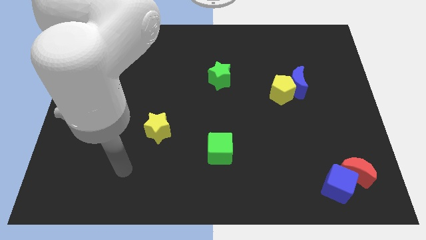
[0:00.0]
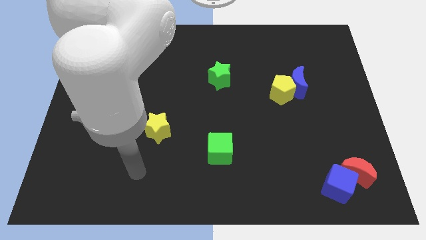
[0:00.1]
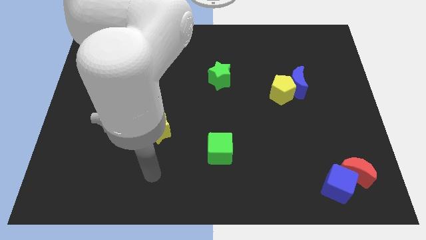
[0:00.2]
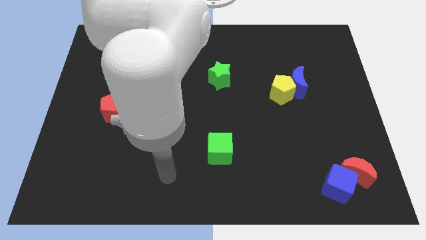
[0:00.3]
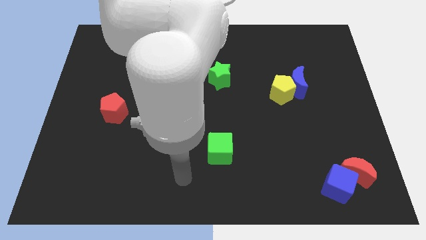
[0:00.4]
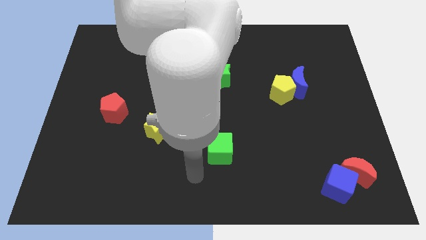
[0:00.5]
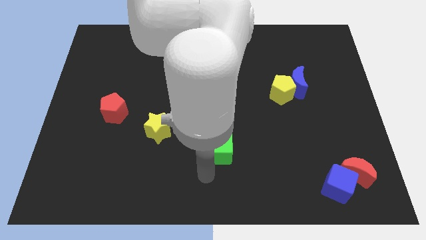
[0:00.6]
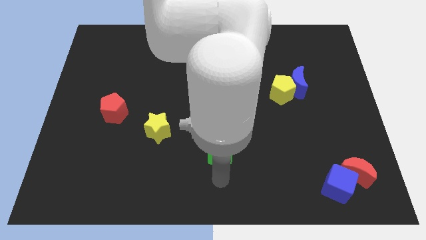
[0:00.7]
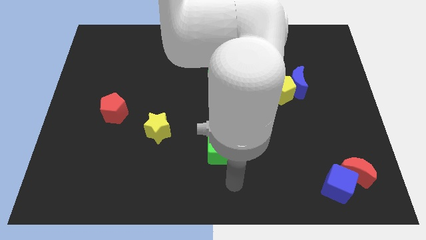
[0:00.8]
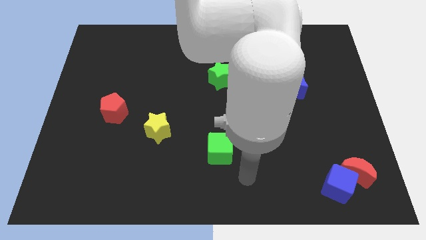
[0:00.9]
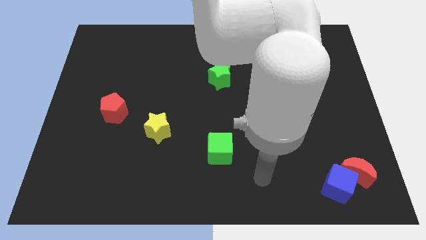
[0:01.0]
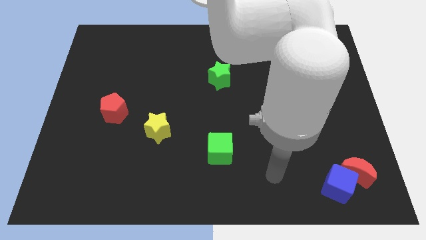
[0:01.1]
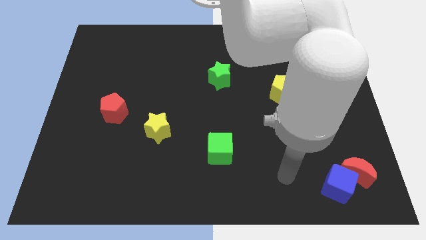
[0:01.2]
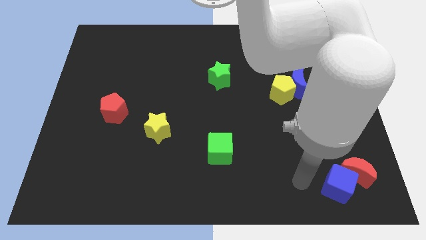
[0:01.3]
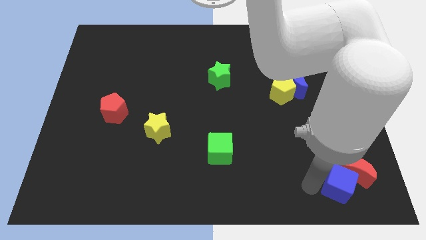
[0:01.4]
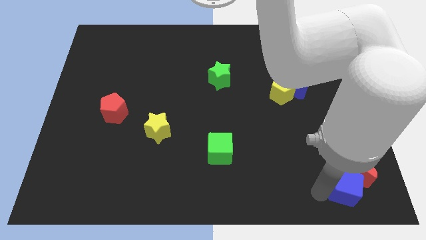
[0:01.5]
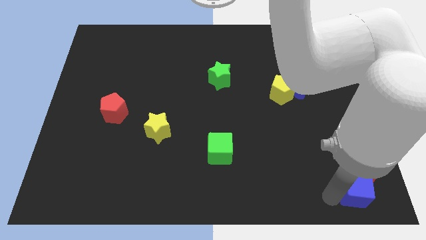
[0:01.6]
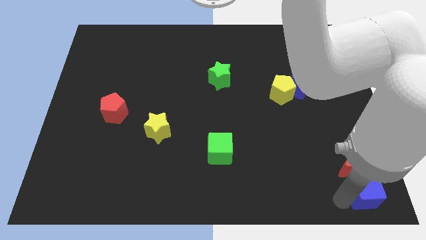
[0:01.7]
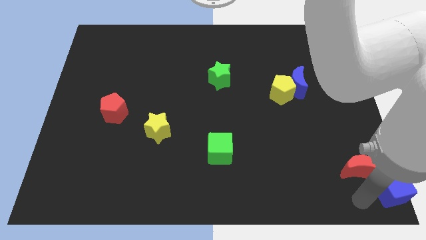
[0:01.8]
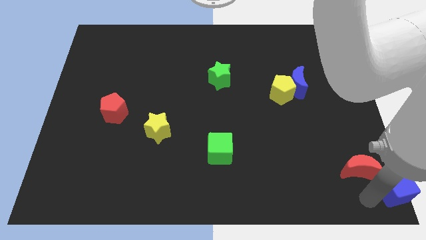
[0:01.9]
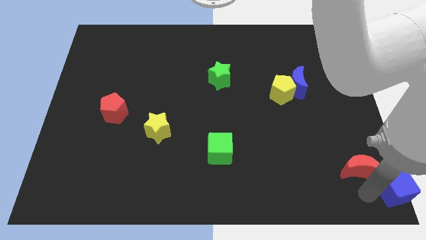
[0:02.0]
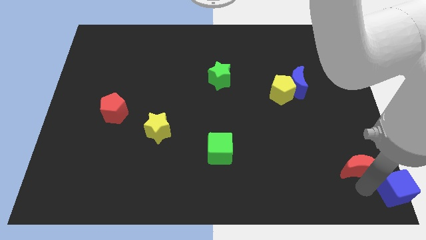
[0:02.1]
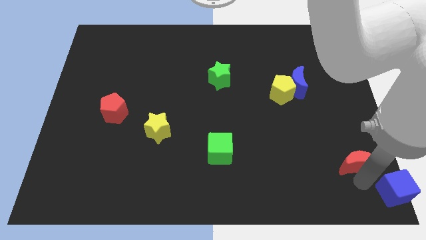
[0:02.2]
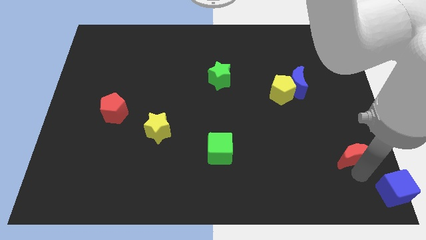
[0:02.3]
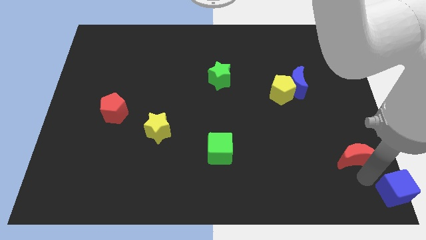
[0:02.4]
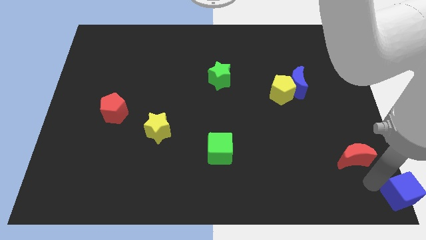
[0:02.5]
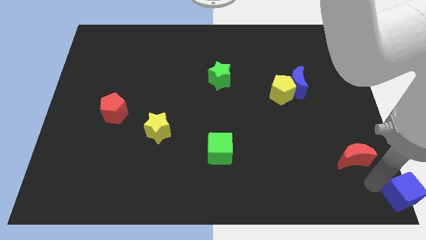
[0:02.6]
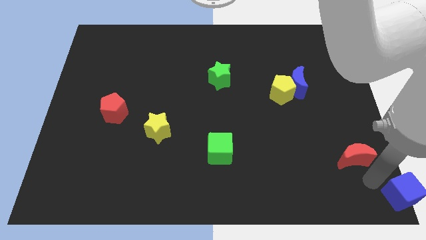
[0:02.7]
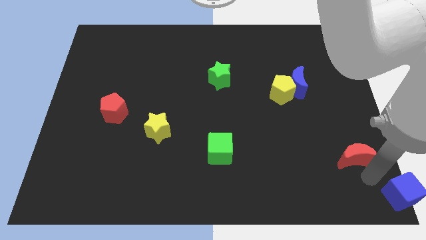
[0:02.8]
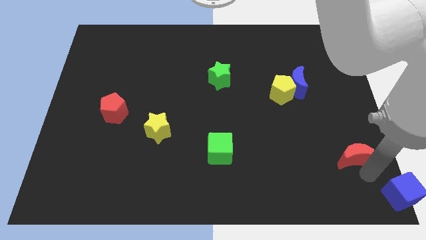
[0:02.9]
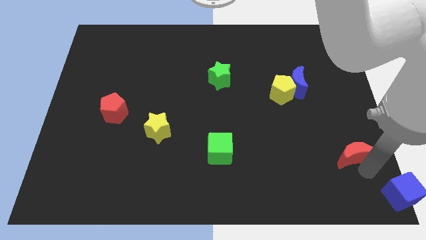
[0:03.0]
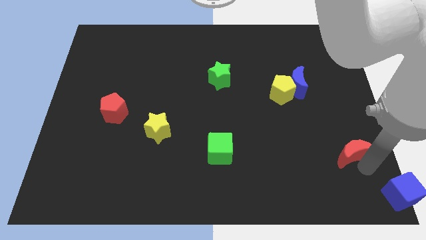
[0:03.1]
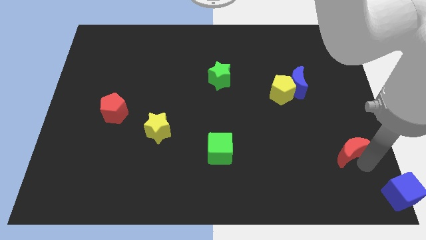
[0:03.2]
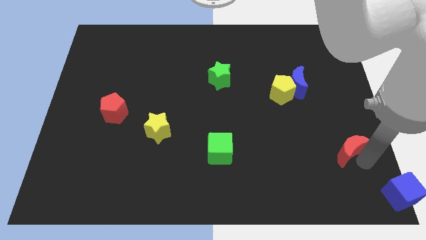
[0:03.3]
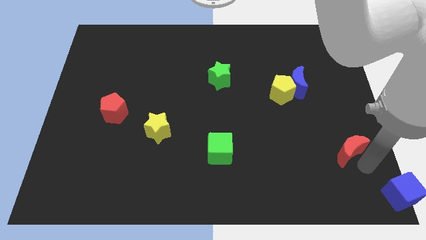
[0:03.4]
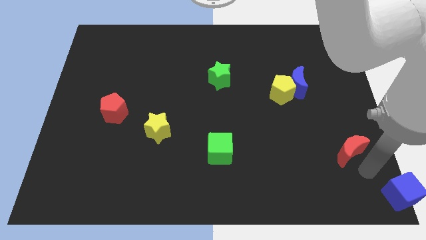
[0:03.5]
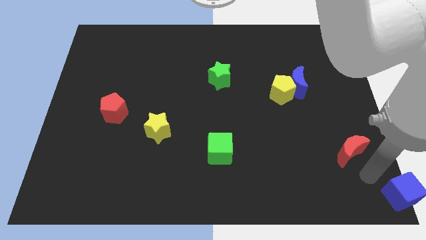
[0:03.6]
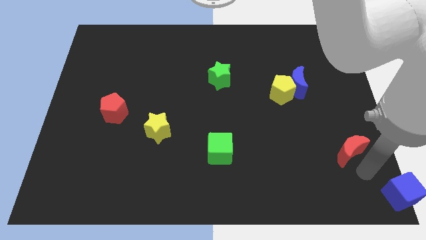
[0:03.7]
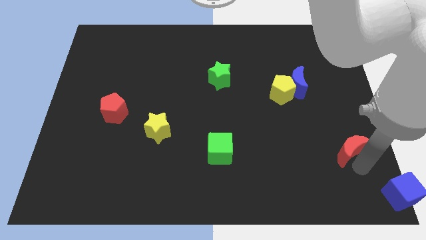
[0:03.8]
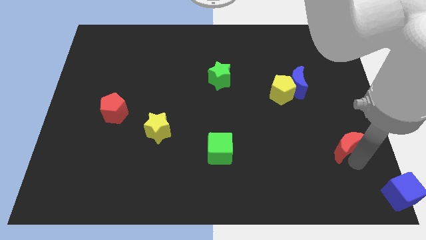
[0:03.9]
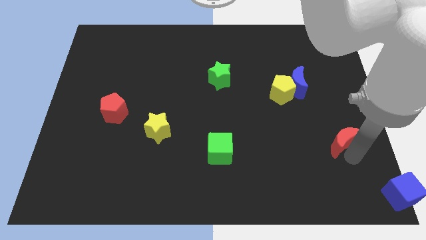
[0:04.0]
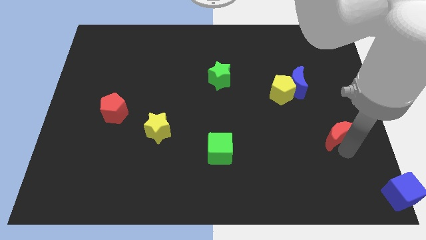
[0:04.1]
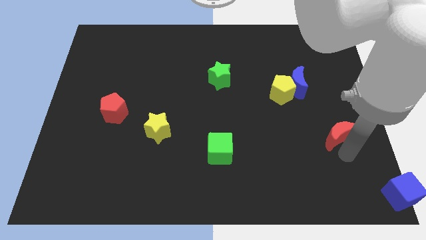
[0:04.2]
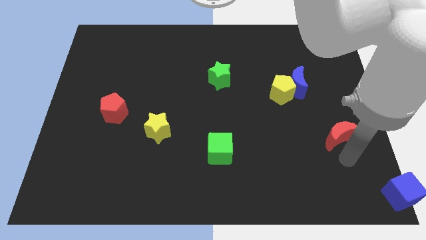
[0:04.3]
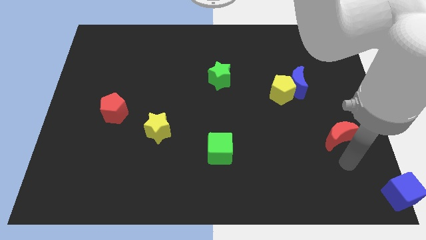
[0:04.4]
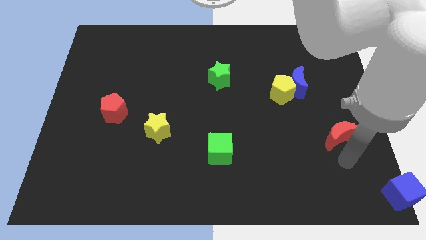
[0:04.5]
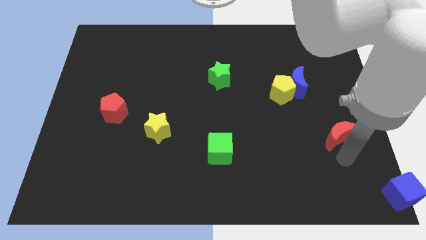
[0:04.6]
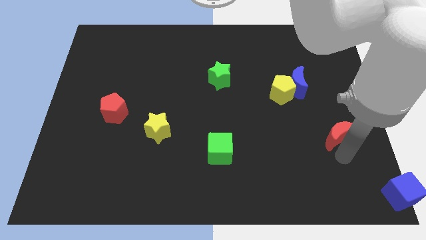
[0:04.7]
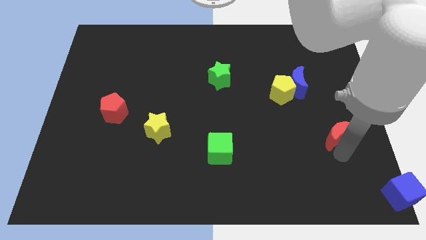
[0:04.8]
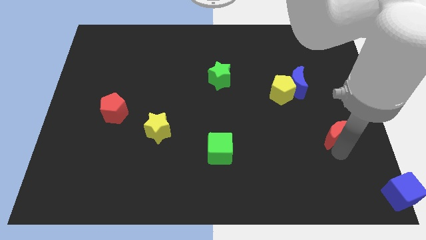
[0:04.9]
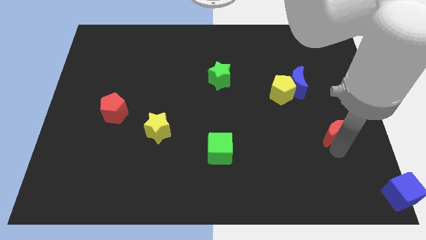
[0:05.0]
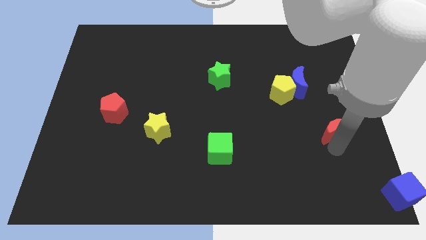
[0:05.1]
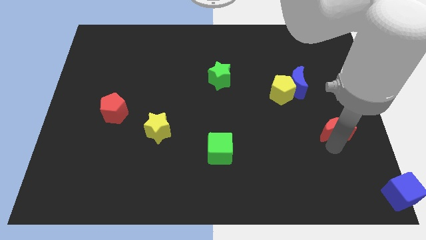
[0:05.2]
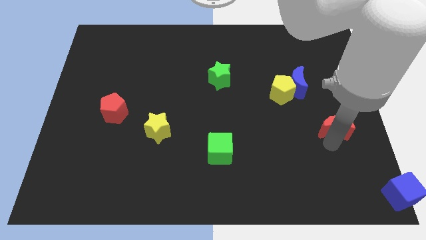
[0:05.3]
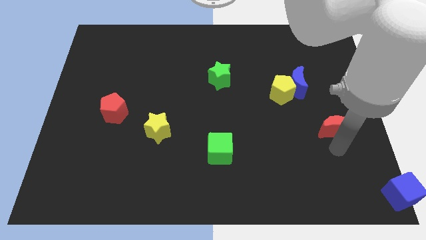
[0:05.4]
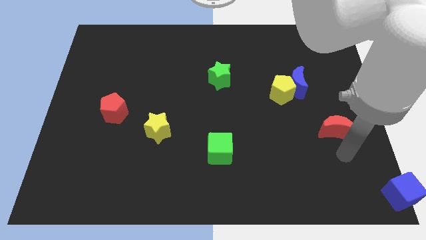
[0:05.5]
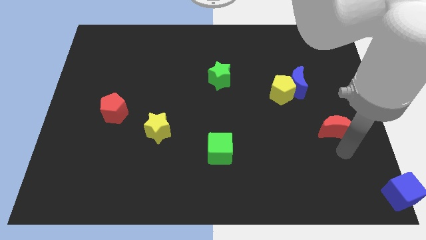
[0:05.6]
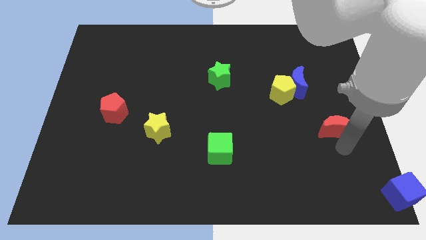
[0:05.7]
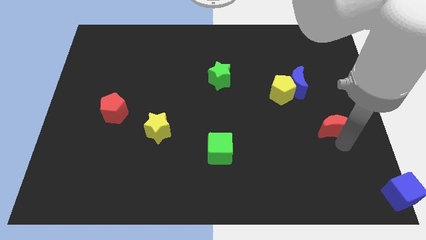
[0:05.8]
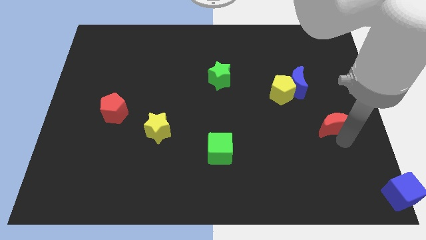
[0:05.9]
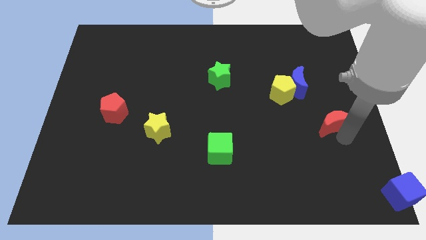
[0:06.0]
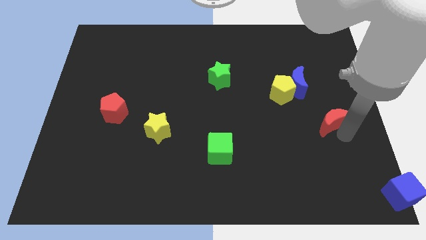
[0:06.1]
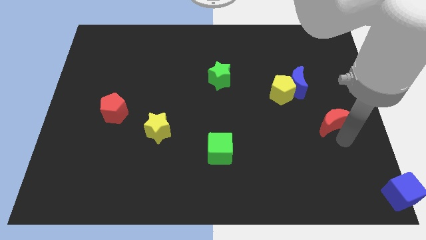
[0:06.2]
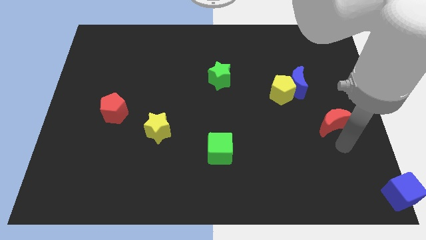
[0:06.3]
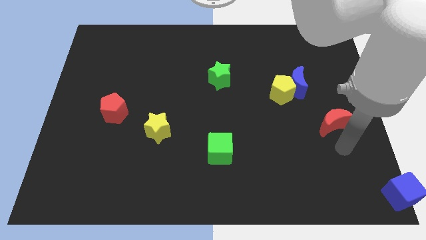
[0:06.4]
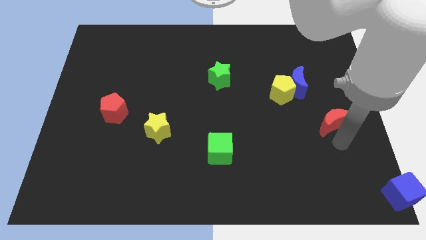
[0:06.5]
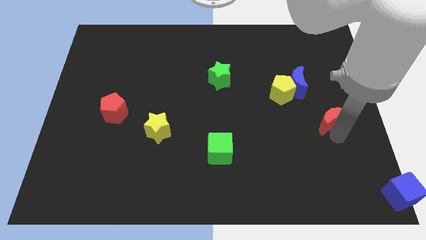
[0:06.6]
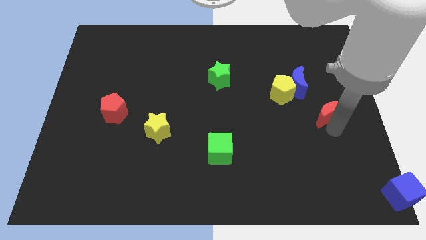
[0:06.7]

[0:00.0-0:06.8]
move the red moon to the bottom right of the blue moon

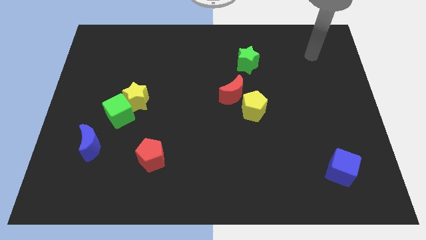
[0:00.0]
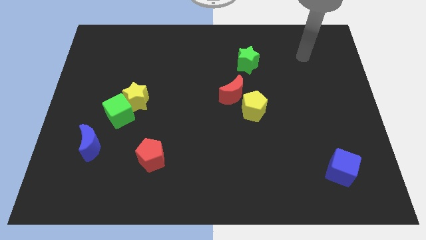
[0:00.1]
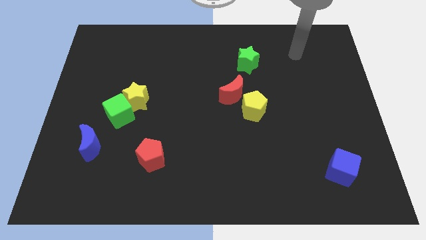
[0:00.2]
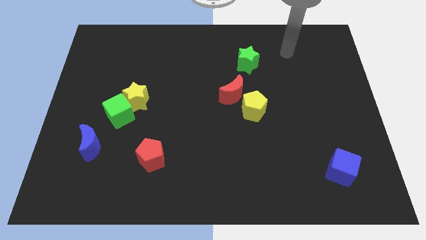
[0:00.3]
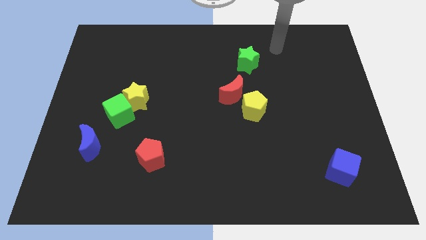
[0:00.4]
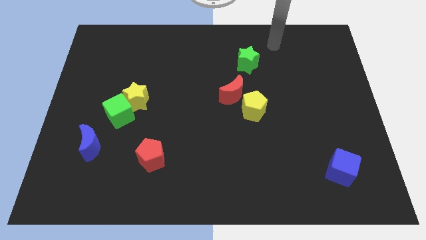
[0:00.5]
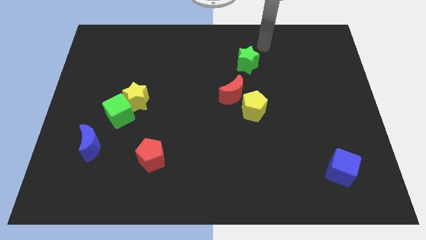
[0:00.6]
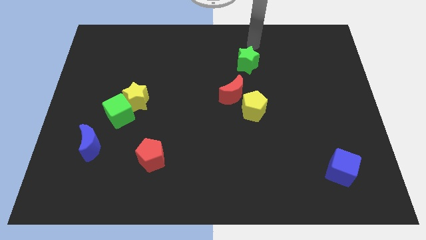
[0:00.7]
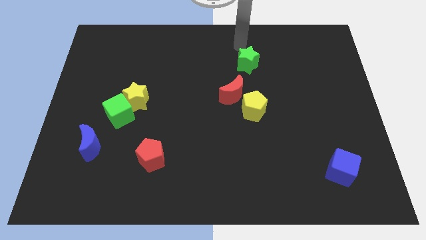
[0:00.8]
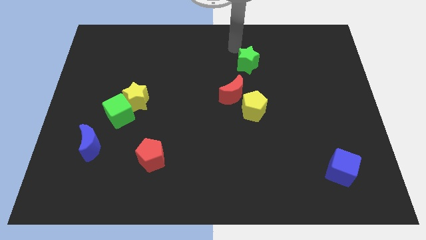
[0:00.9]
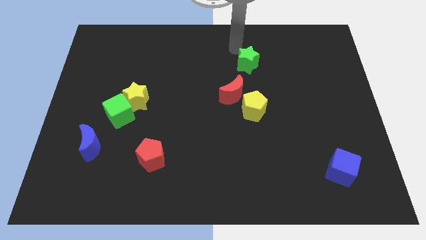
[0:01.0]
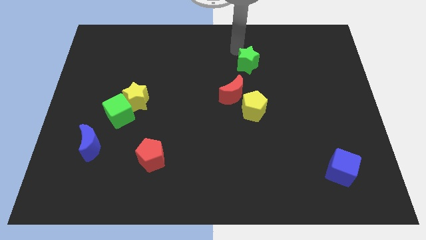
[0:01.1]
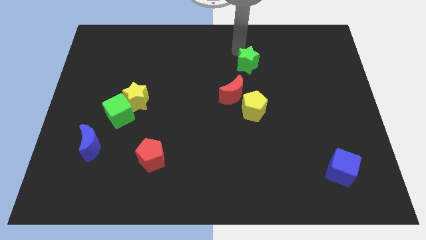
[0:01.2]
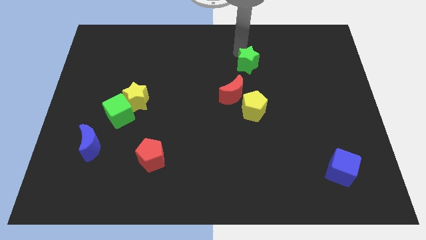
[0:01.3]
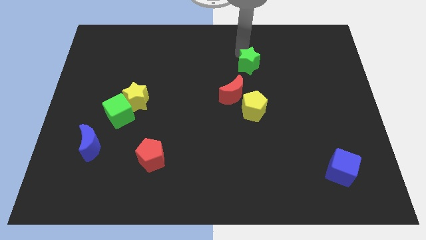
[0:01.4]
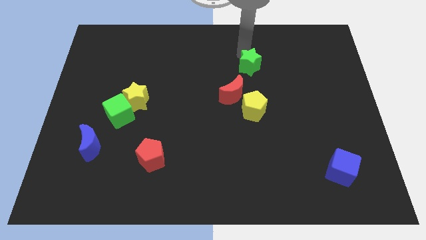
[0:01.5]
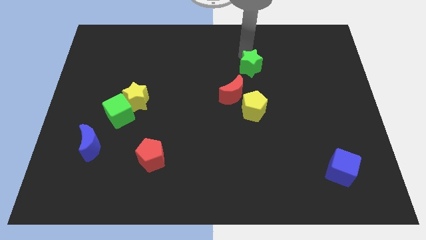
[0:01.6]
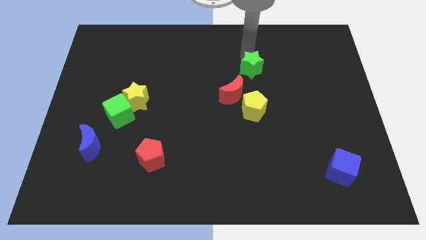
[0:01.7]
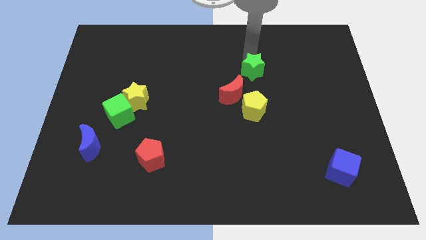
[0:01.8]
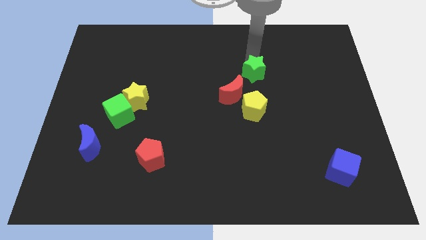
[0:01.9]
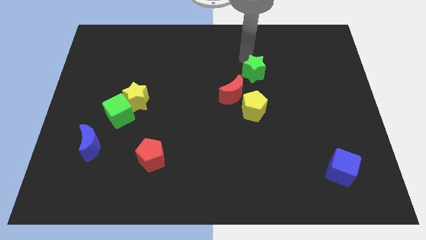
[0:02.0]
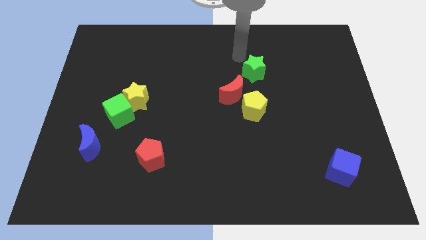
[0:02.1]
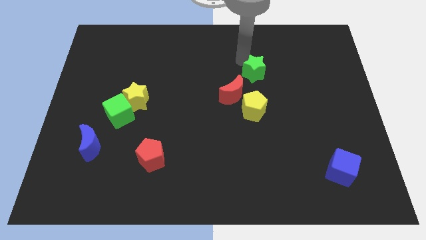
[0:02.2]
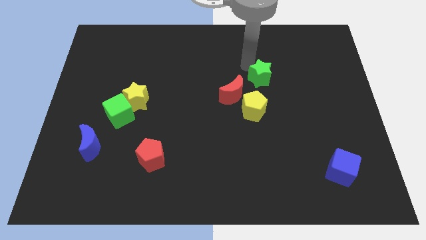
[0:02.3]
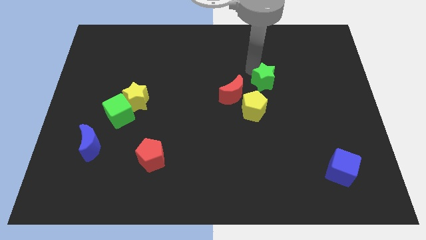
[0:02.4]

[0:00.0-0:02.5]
move the green star to the top right side of the yellow pentagon
